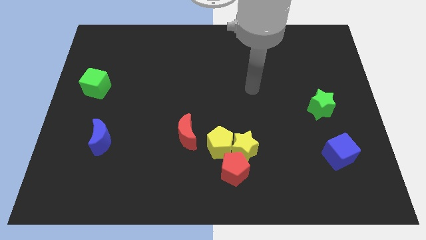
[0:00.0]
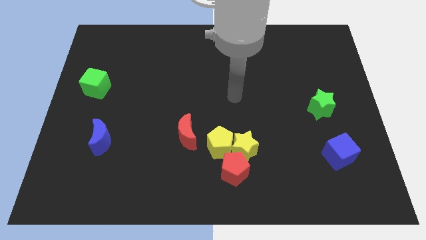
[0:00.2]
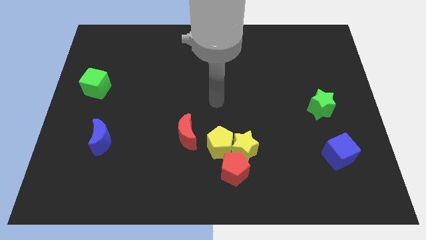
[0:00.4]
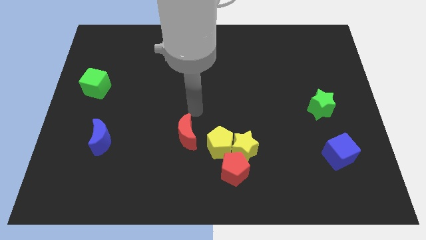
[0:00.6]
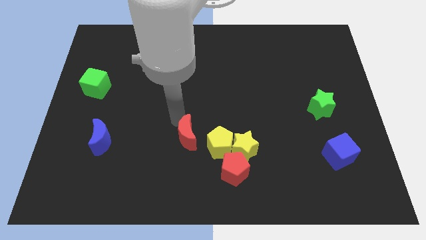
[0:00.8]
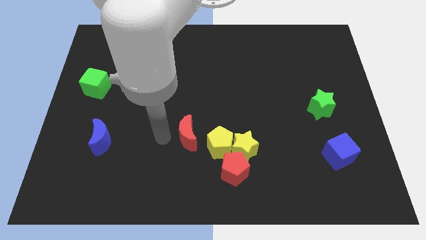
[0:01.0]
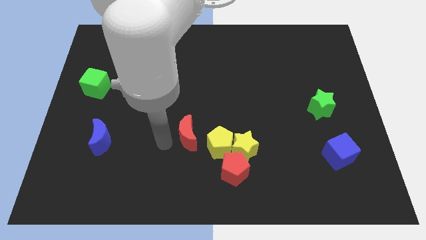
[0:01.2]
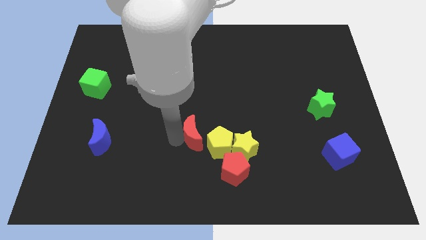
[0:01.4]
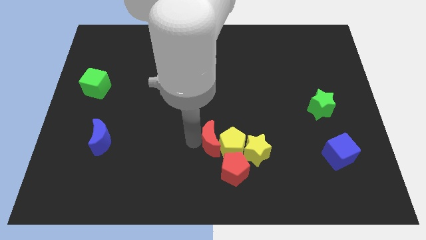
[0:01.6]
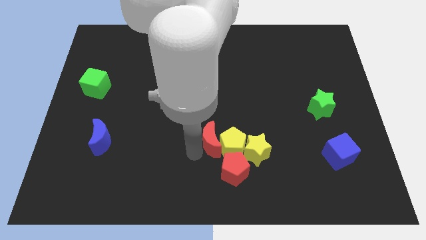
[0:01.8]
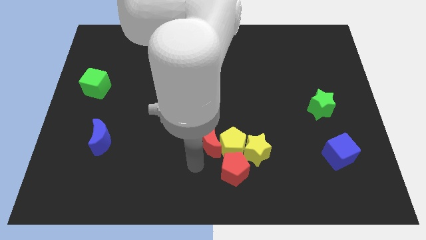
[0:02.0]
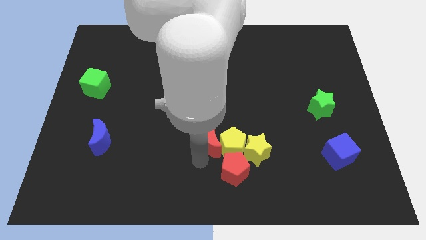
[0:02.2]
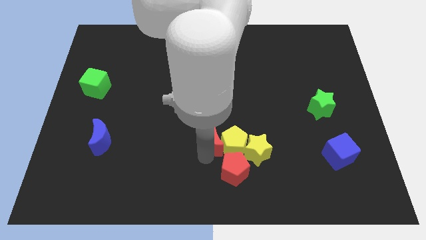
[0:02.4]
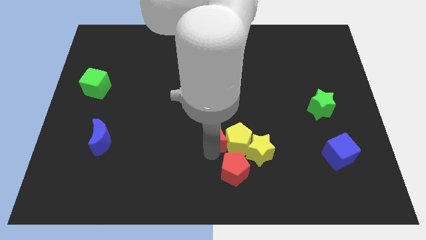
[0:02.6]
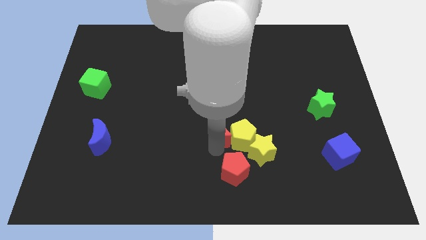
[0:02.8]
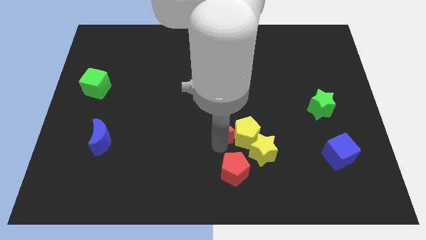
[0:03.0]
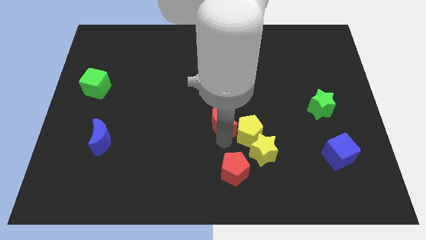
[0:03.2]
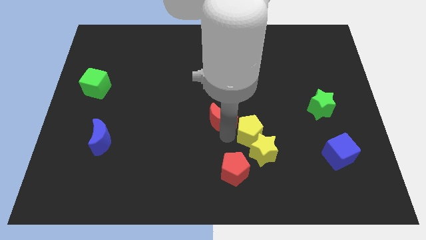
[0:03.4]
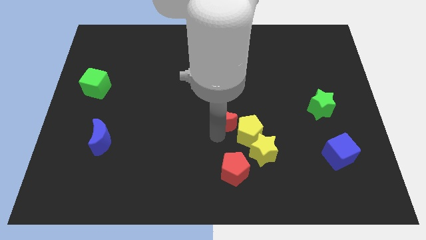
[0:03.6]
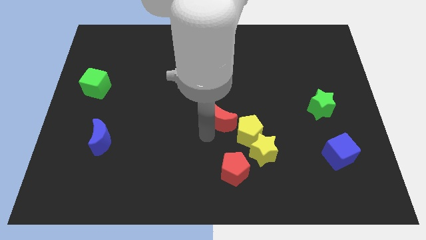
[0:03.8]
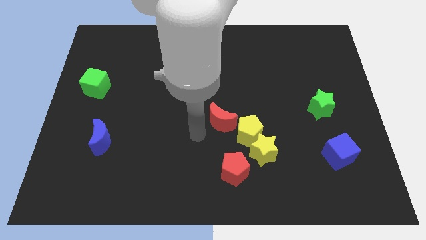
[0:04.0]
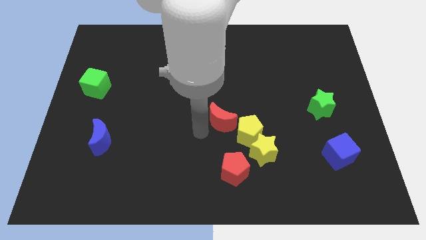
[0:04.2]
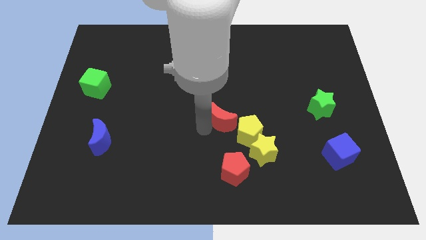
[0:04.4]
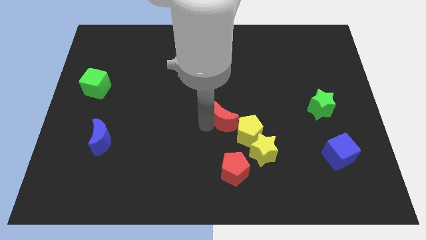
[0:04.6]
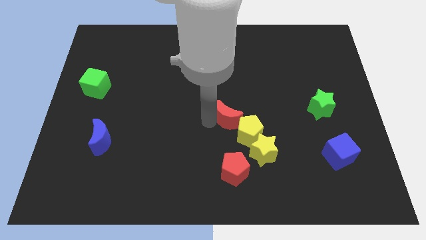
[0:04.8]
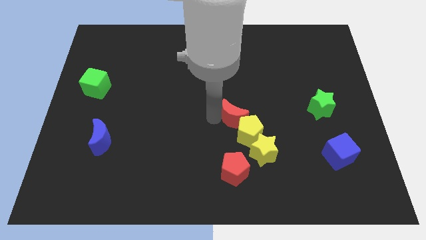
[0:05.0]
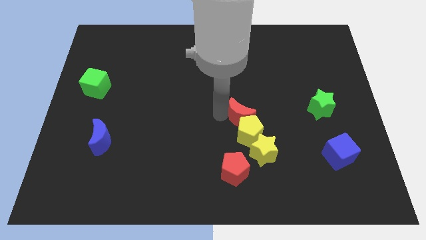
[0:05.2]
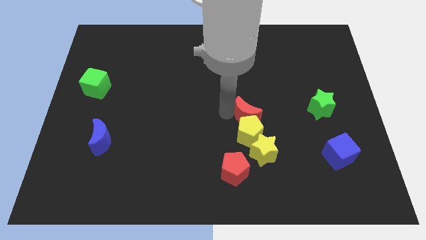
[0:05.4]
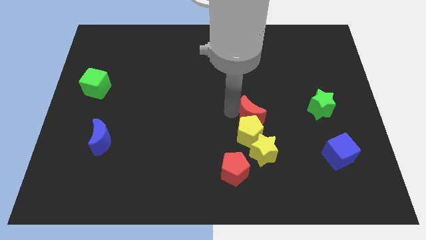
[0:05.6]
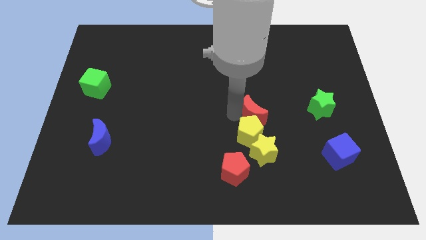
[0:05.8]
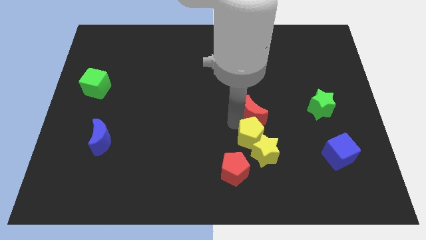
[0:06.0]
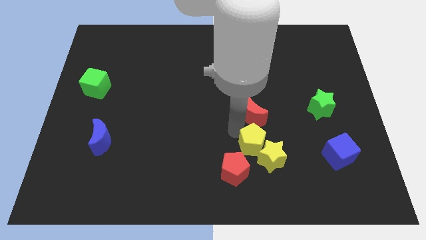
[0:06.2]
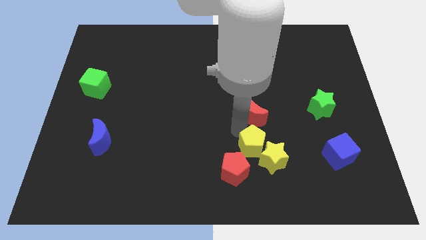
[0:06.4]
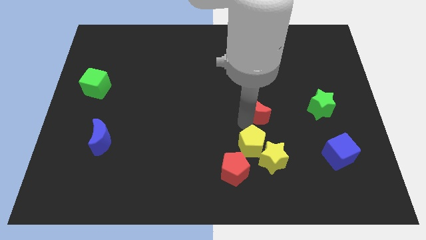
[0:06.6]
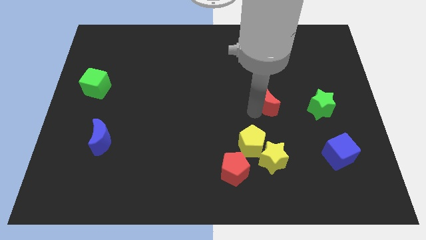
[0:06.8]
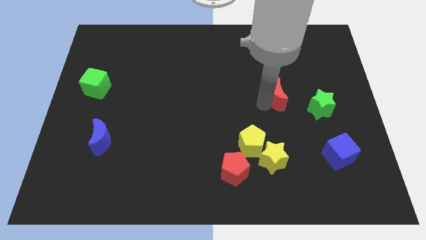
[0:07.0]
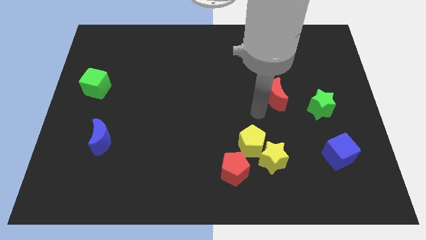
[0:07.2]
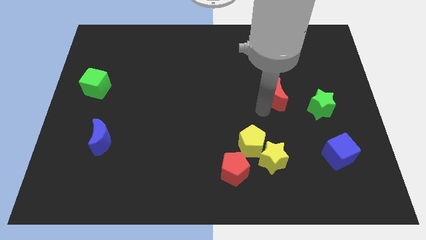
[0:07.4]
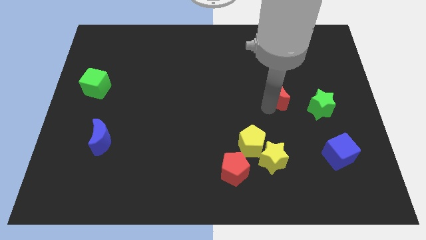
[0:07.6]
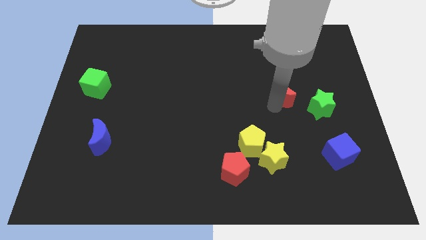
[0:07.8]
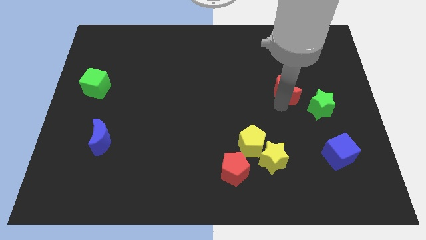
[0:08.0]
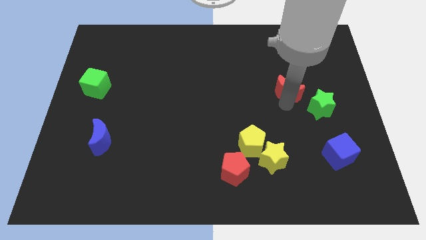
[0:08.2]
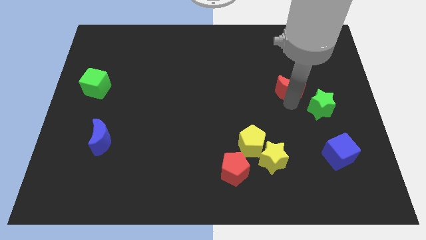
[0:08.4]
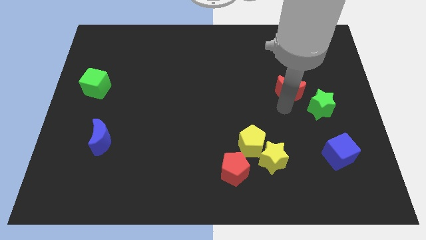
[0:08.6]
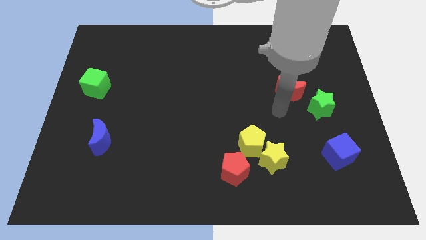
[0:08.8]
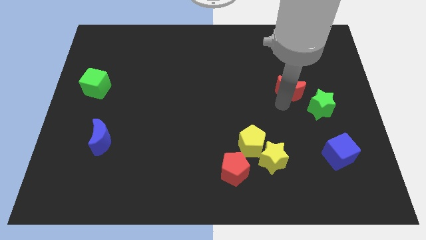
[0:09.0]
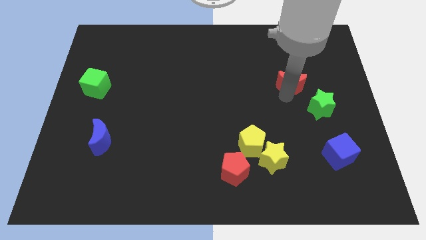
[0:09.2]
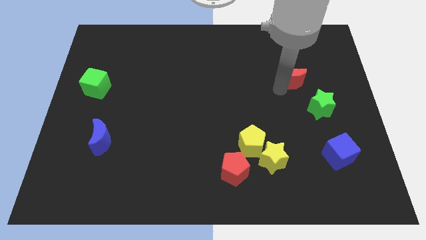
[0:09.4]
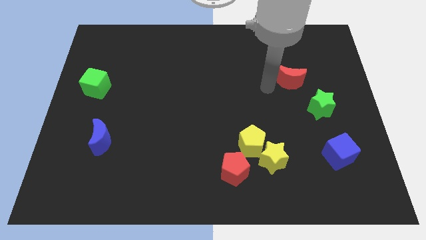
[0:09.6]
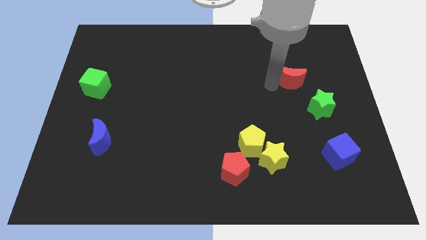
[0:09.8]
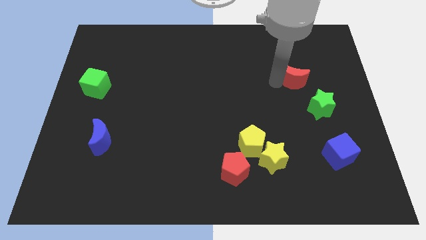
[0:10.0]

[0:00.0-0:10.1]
slide the red moon to the top side of the green star

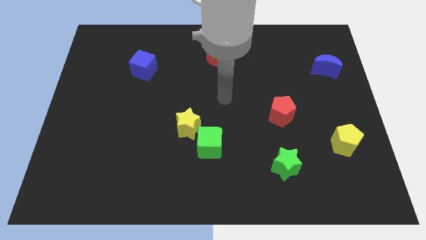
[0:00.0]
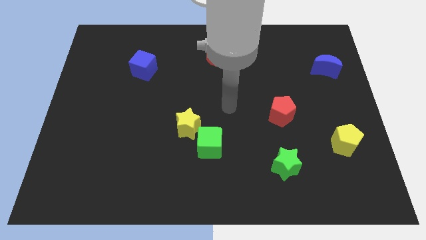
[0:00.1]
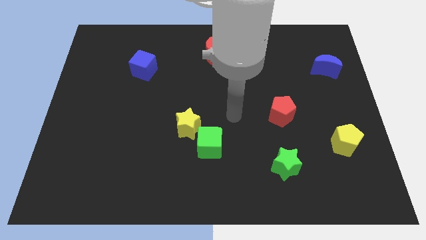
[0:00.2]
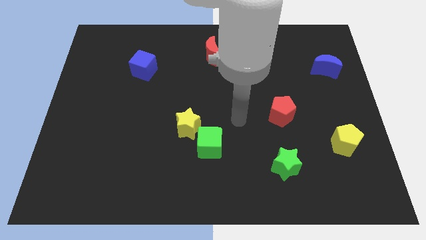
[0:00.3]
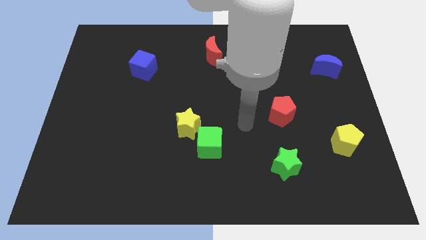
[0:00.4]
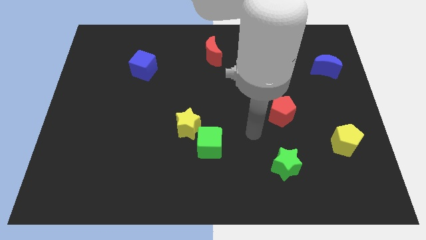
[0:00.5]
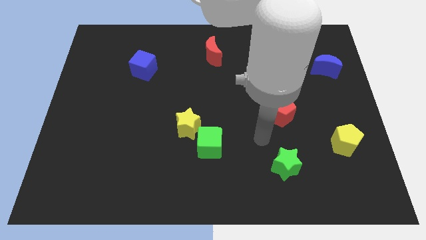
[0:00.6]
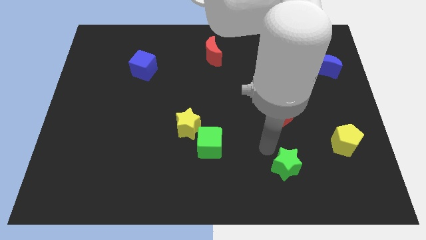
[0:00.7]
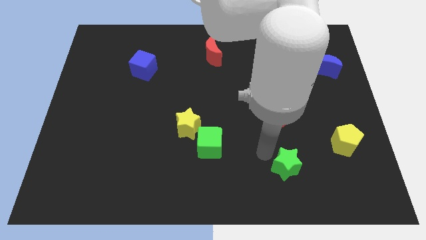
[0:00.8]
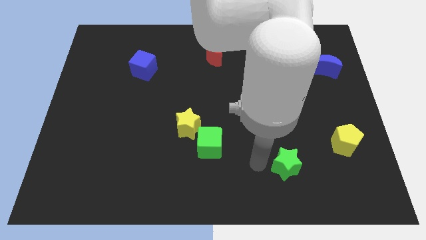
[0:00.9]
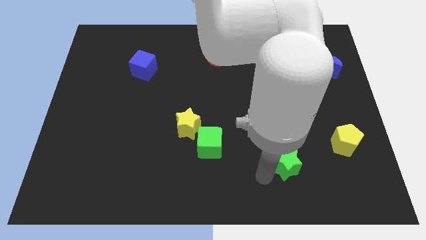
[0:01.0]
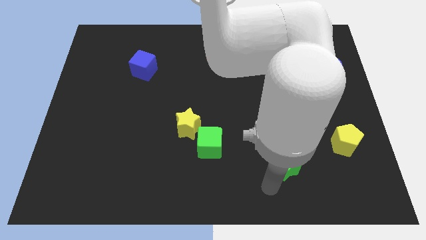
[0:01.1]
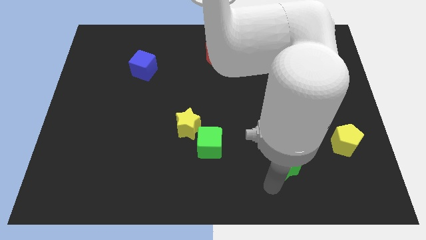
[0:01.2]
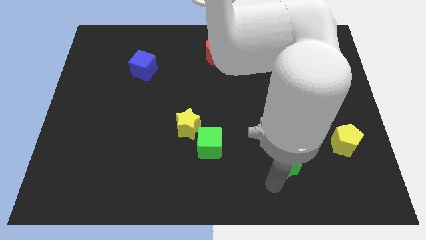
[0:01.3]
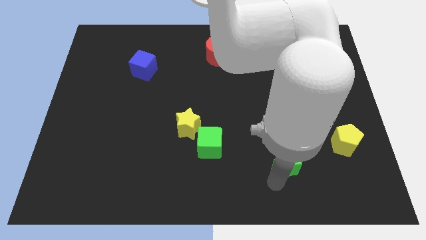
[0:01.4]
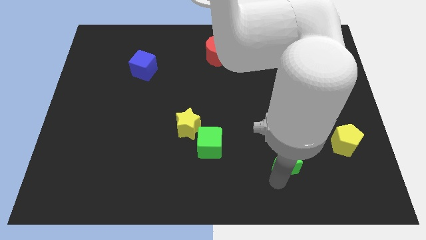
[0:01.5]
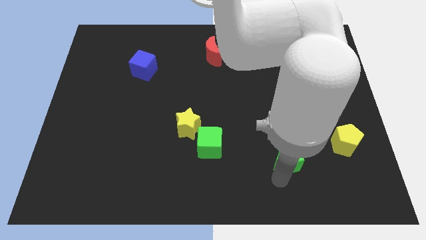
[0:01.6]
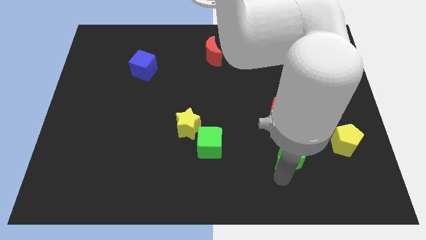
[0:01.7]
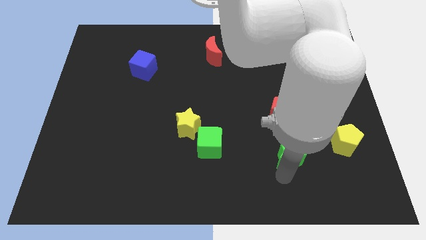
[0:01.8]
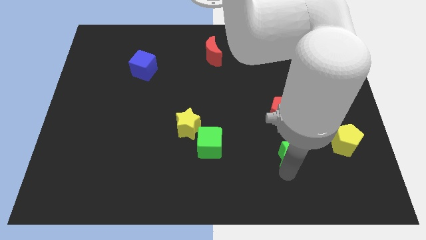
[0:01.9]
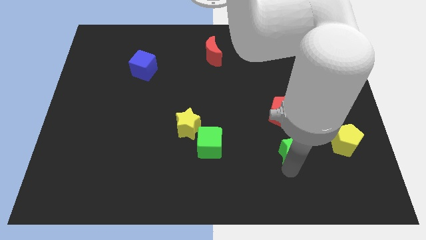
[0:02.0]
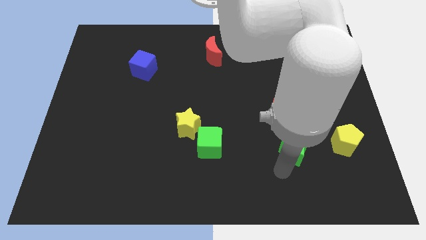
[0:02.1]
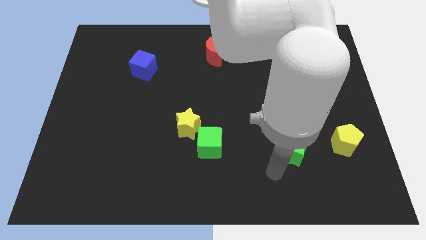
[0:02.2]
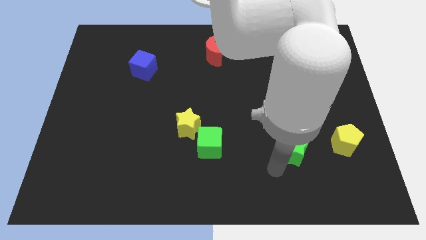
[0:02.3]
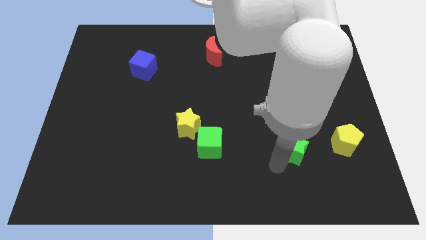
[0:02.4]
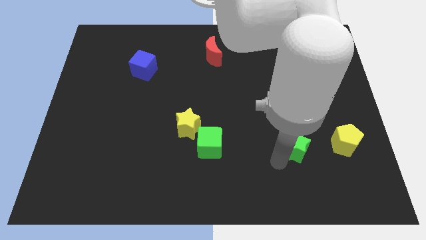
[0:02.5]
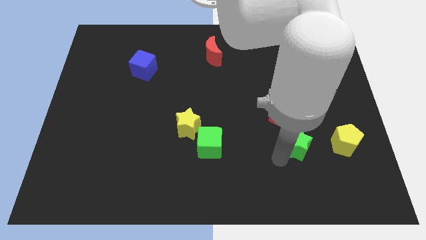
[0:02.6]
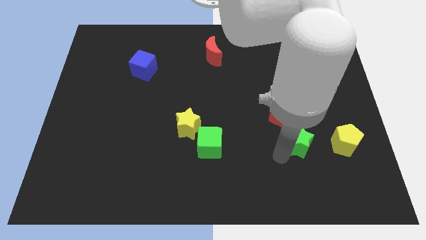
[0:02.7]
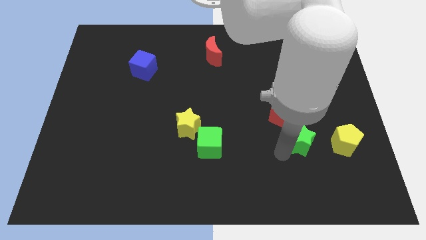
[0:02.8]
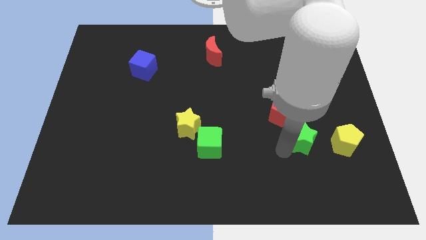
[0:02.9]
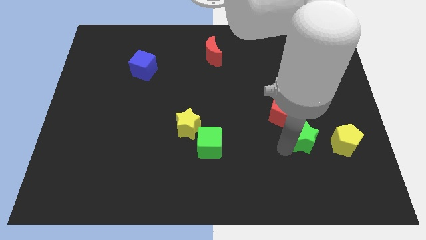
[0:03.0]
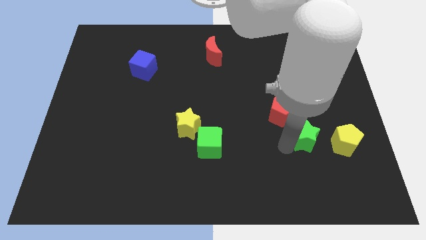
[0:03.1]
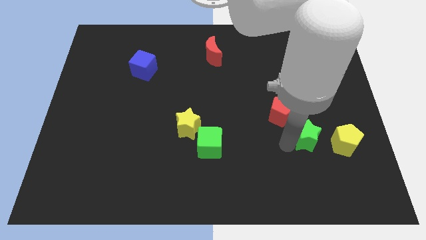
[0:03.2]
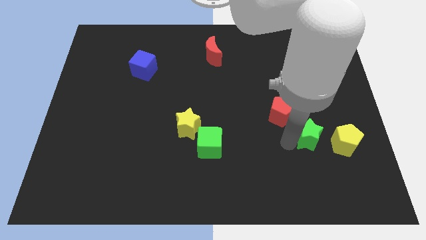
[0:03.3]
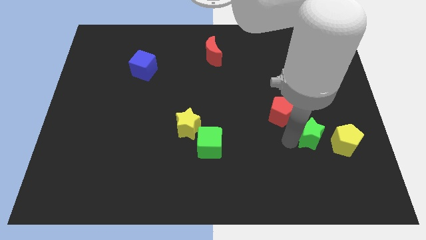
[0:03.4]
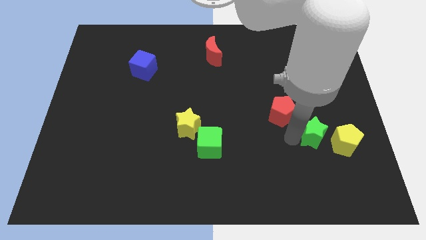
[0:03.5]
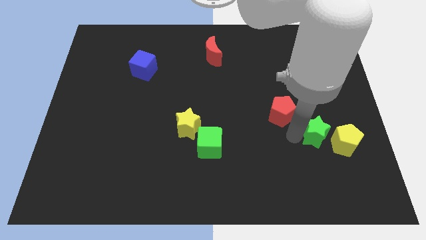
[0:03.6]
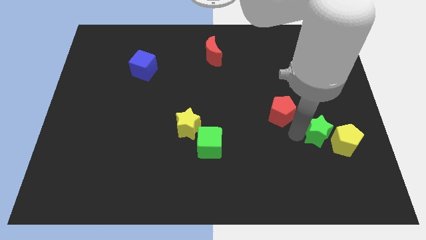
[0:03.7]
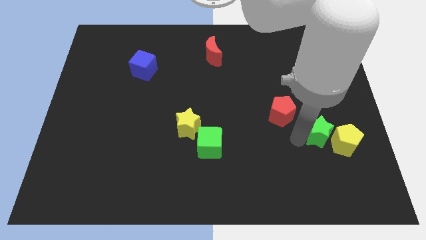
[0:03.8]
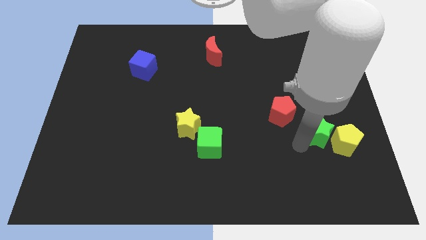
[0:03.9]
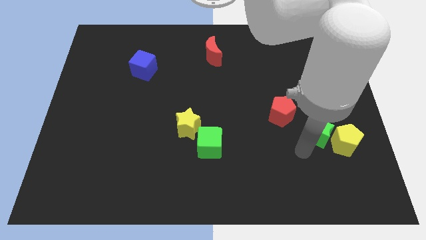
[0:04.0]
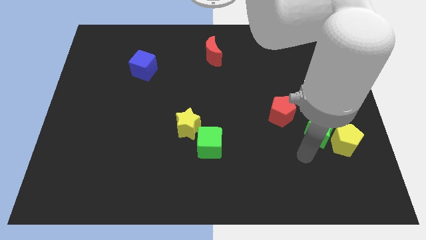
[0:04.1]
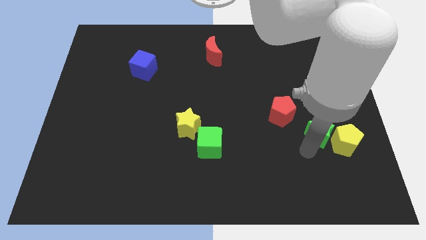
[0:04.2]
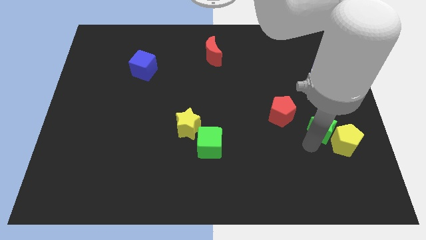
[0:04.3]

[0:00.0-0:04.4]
slide the green star to the right side of the red pentagon
